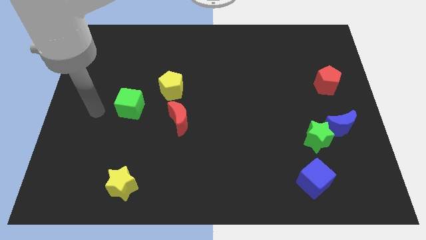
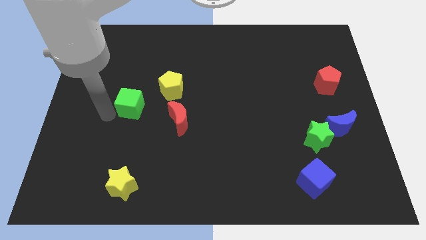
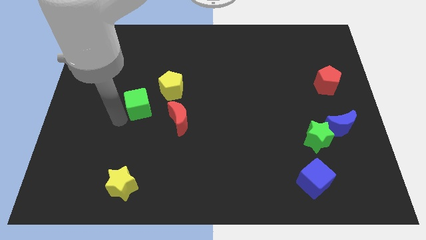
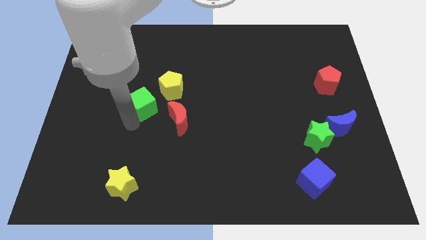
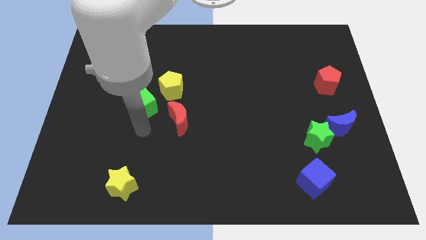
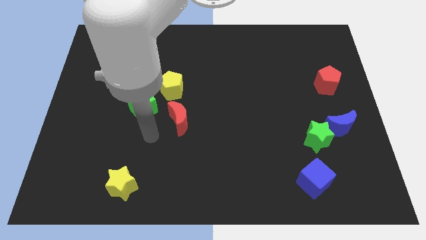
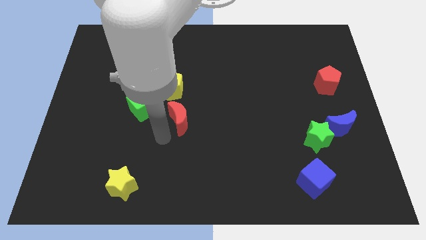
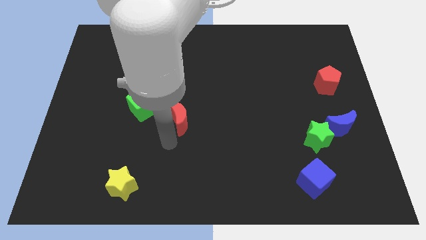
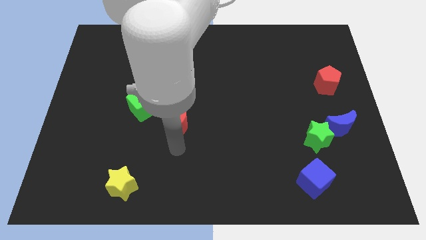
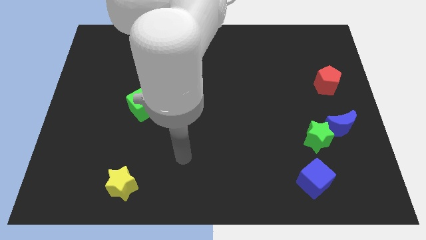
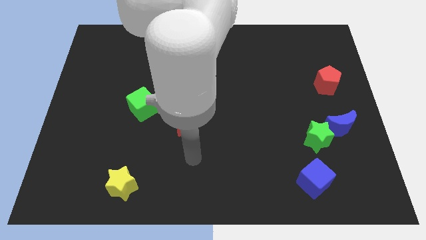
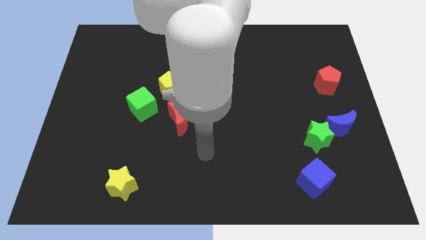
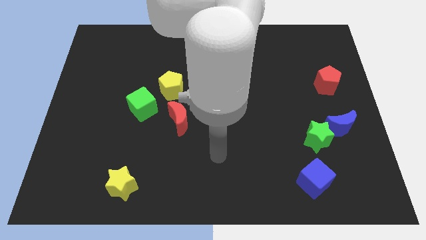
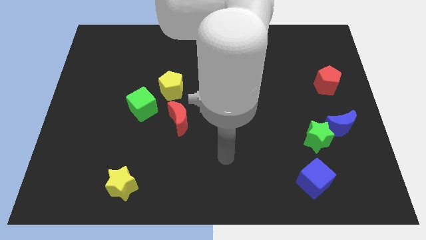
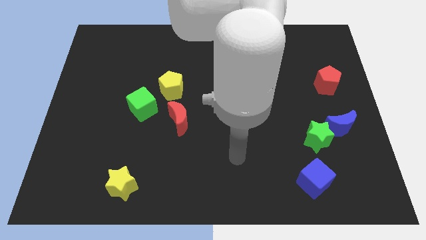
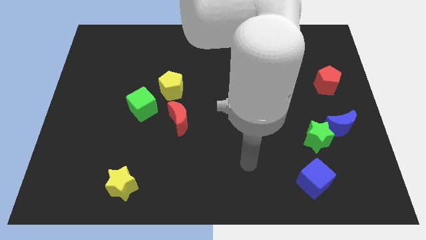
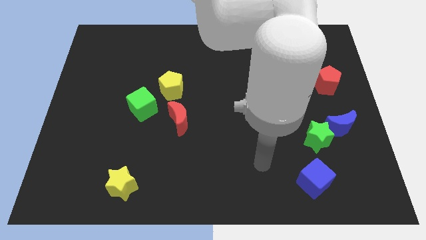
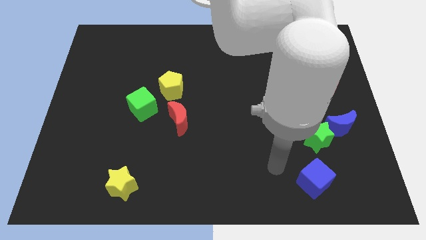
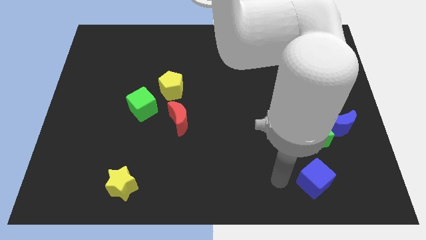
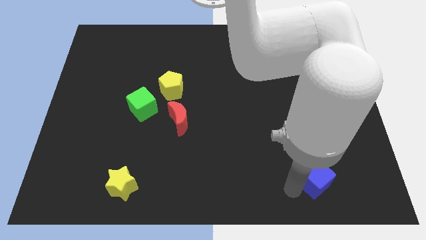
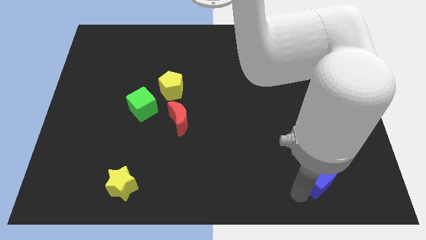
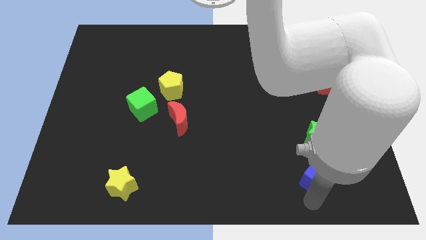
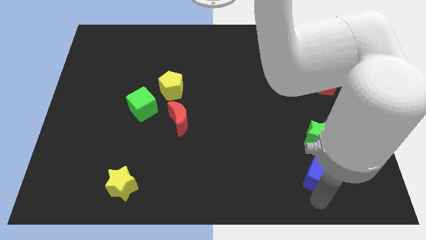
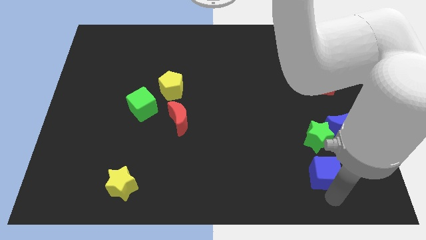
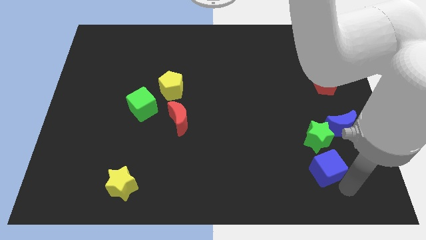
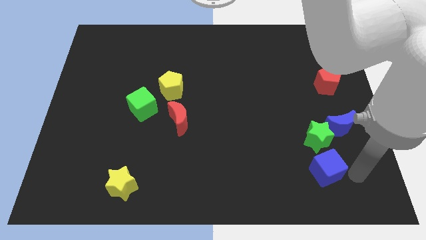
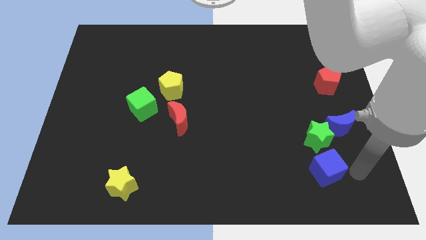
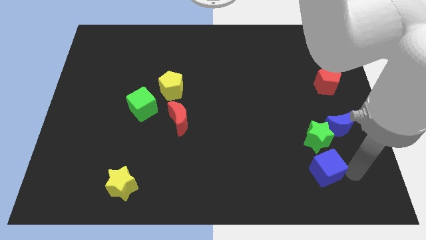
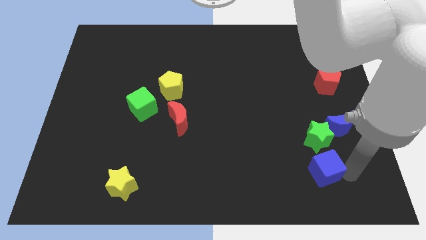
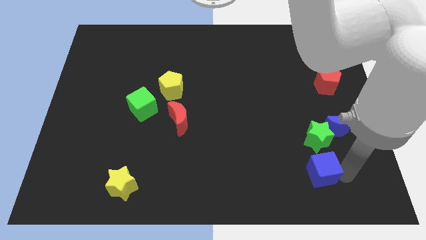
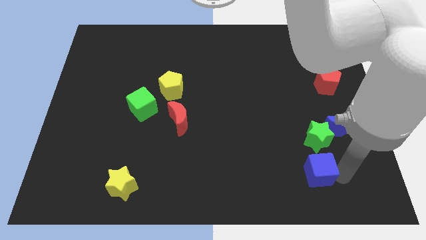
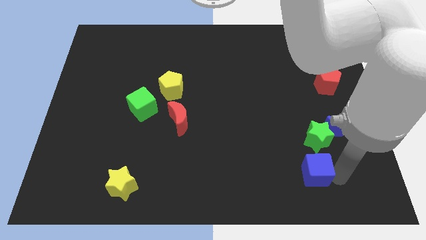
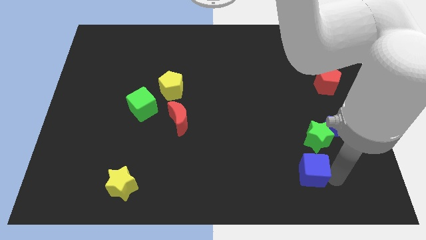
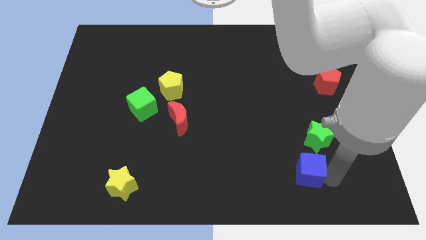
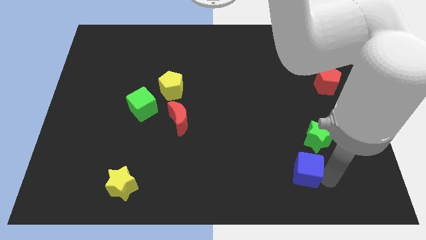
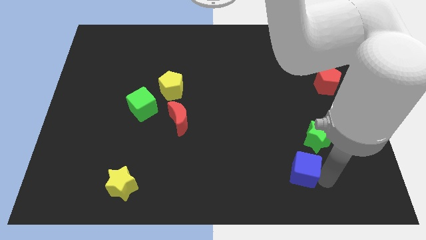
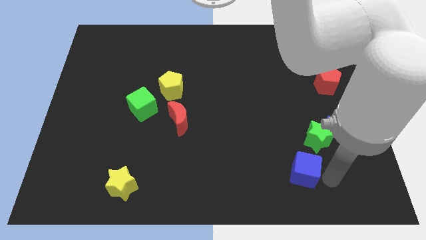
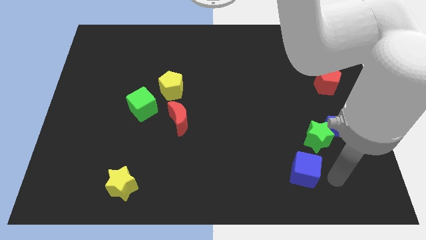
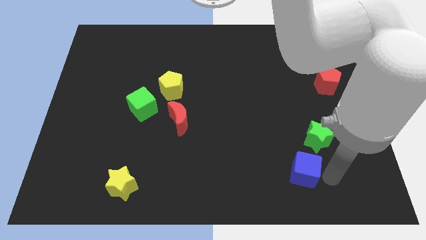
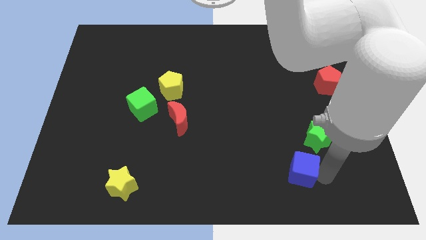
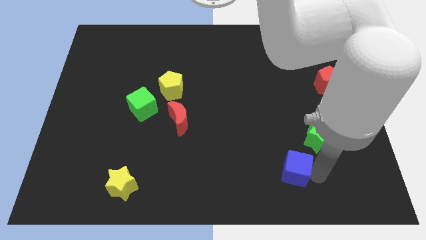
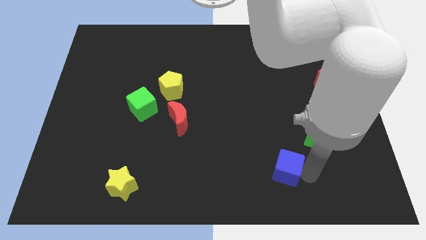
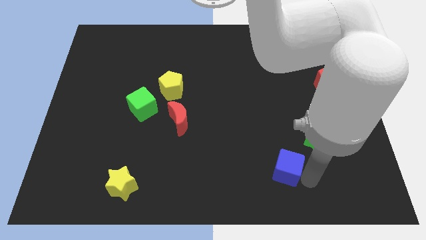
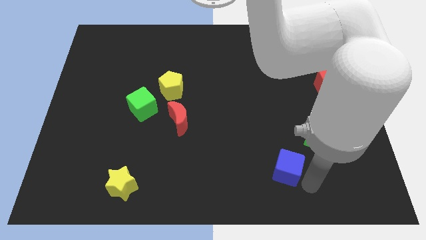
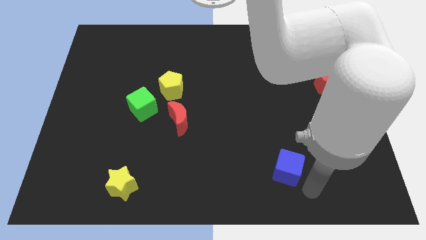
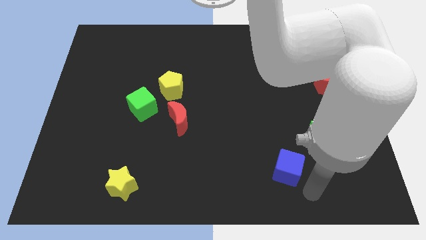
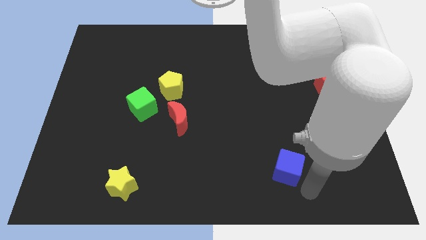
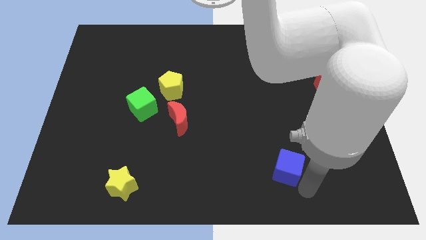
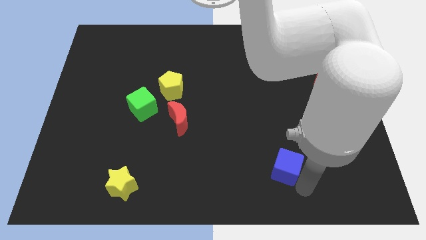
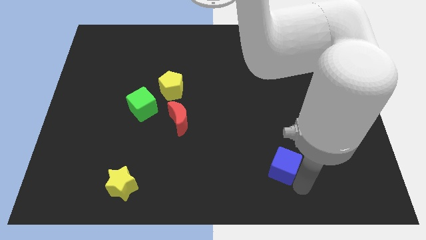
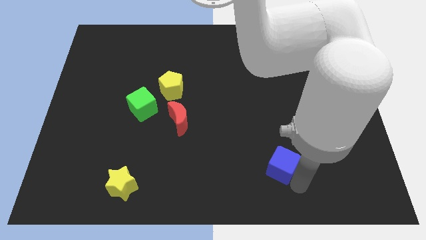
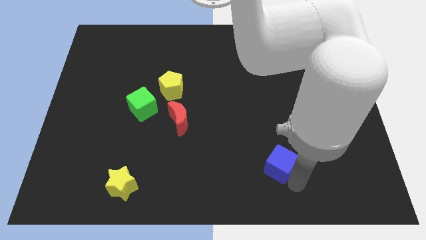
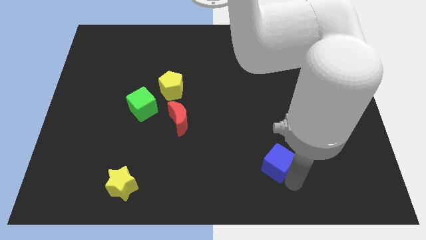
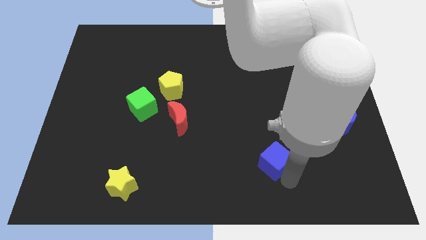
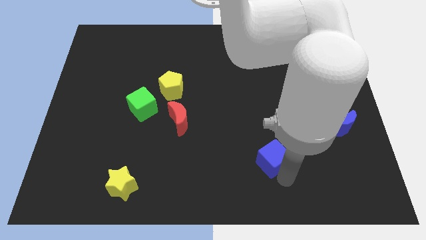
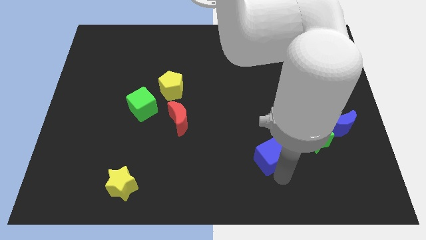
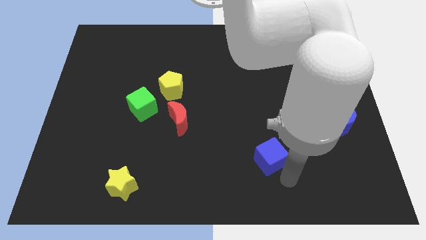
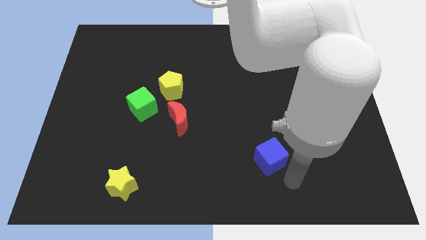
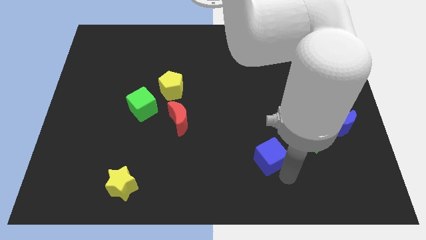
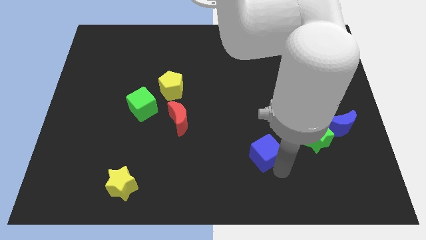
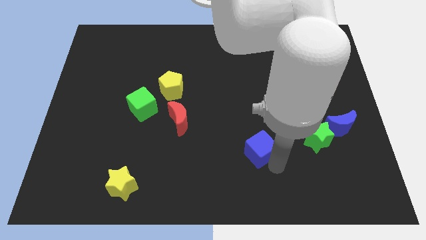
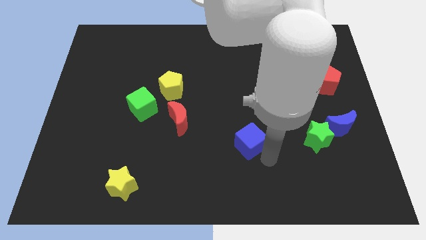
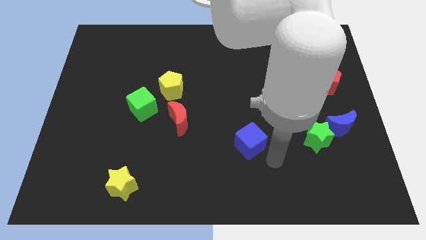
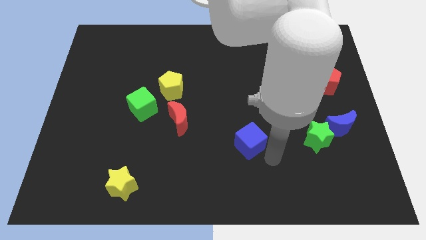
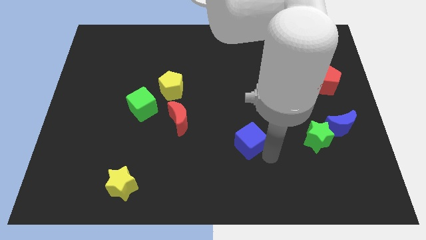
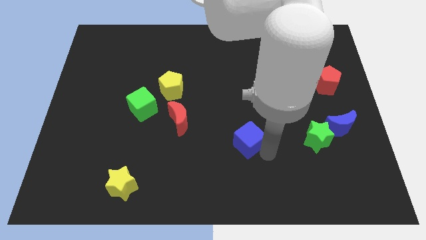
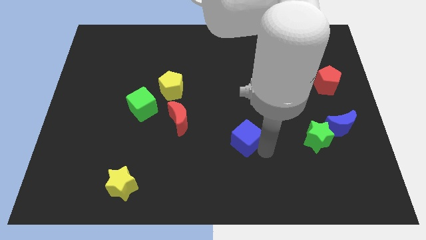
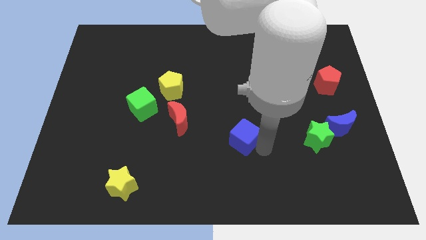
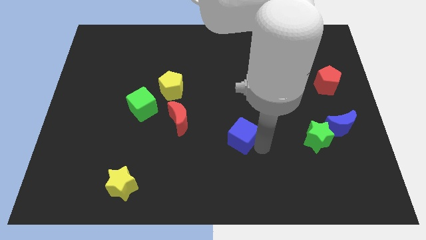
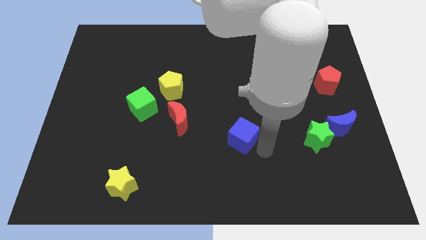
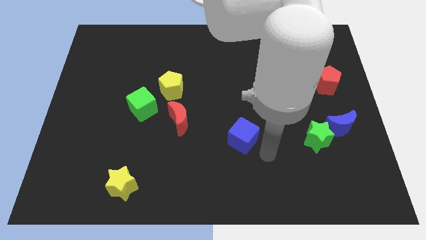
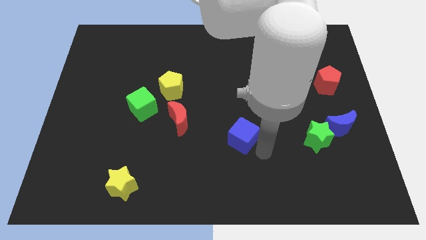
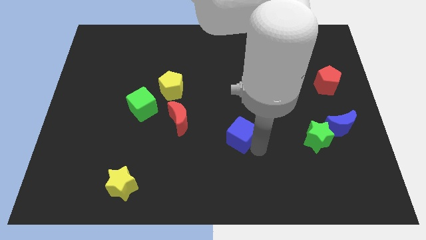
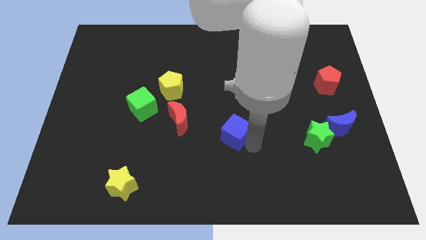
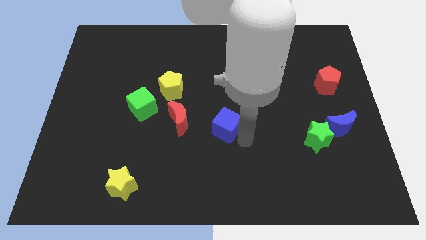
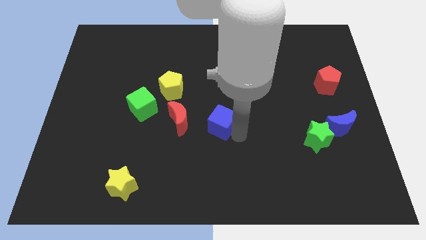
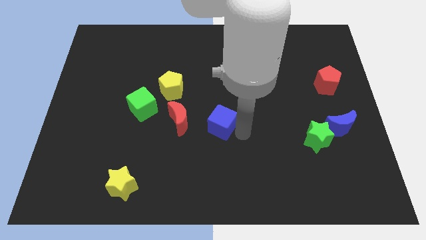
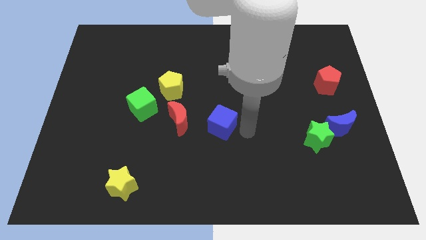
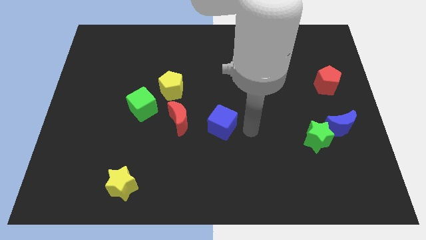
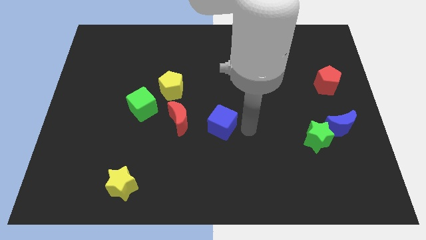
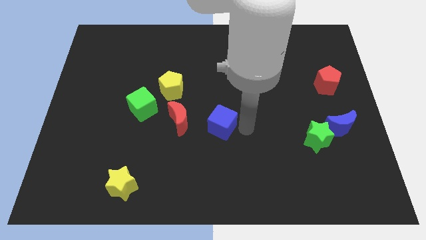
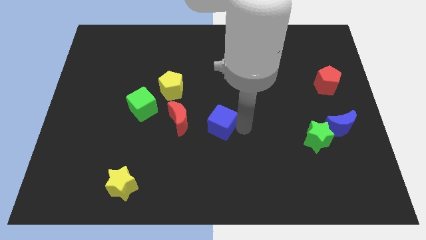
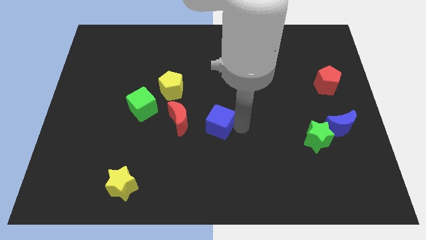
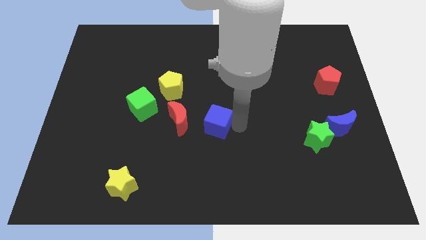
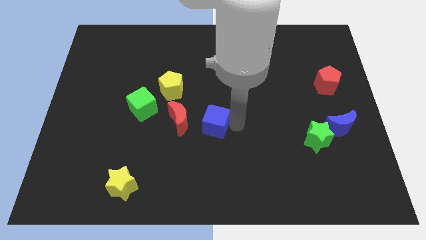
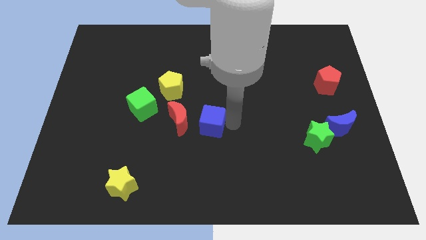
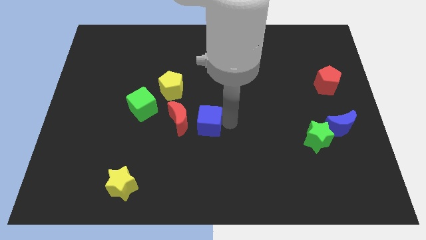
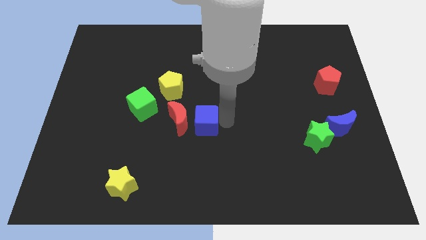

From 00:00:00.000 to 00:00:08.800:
put the blue cube close to the red moon
